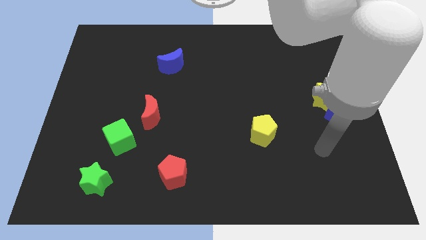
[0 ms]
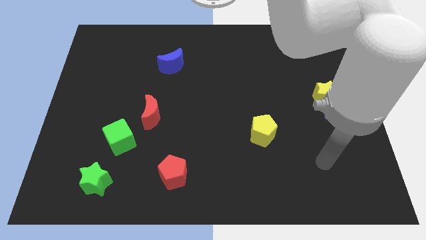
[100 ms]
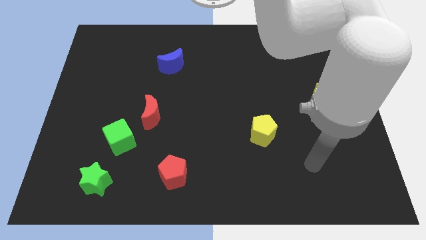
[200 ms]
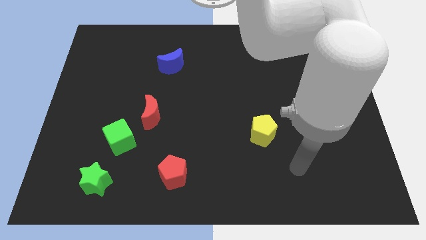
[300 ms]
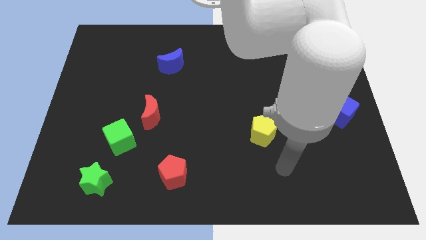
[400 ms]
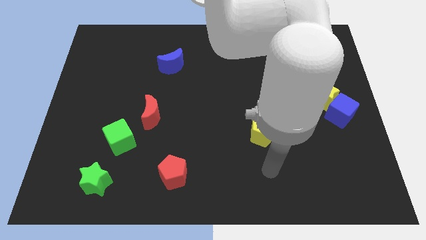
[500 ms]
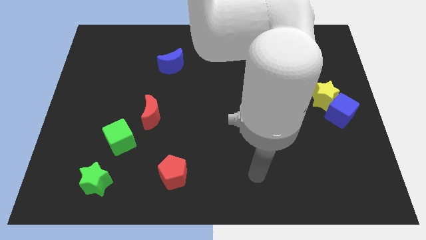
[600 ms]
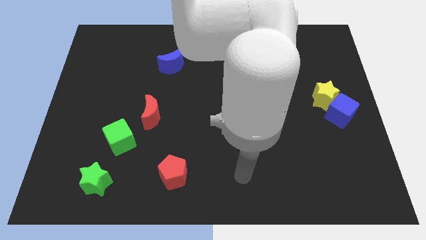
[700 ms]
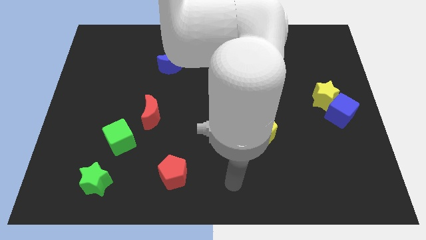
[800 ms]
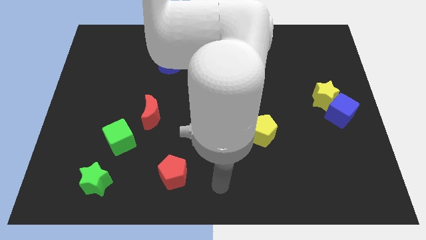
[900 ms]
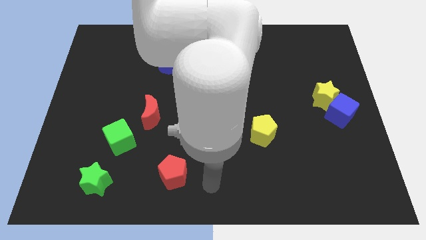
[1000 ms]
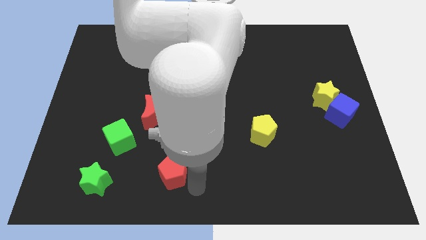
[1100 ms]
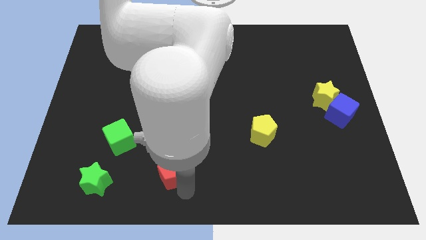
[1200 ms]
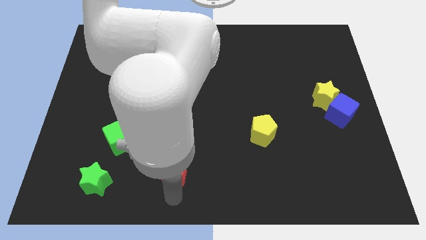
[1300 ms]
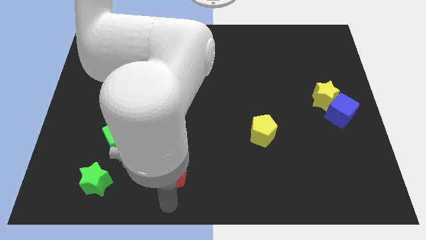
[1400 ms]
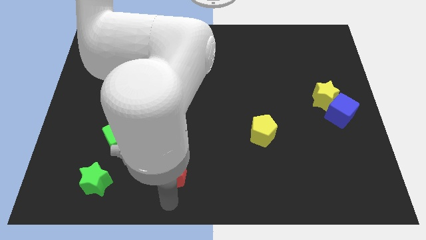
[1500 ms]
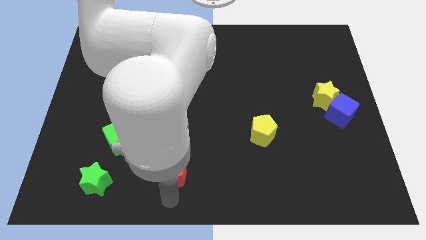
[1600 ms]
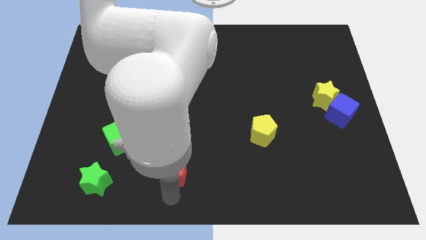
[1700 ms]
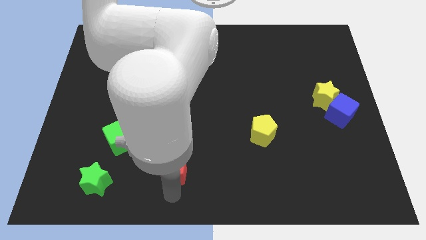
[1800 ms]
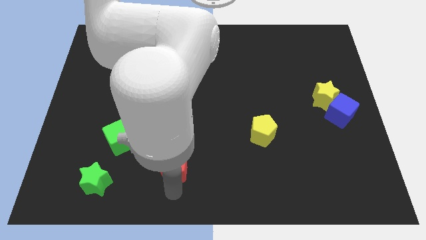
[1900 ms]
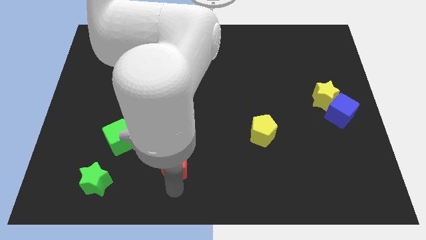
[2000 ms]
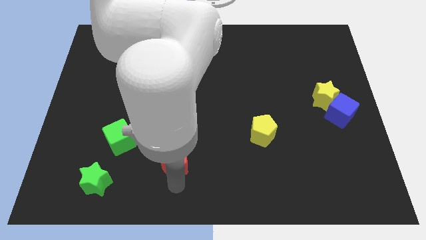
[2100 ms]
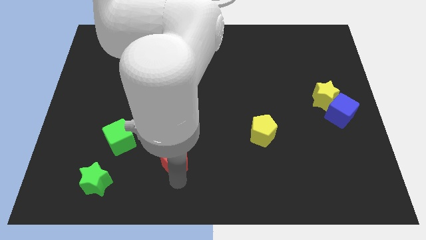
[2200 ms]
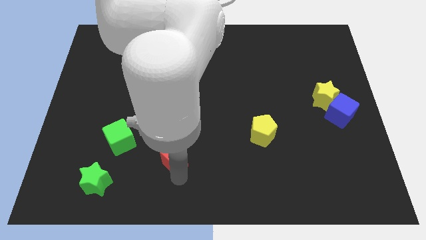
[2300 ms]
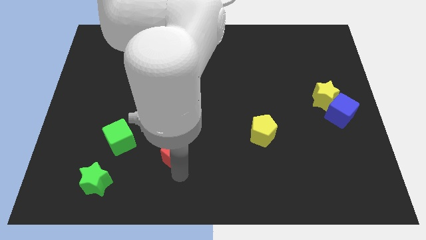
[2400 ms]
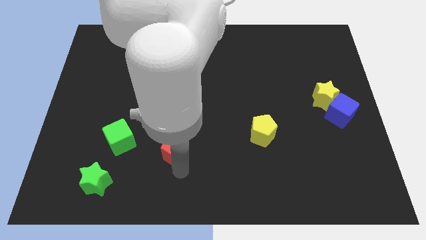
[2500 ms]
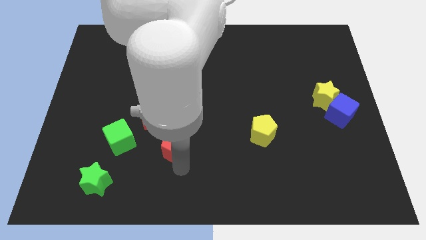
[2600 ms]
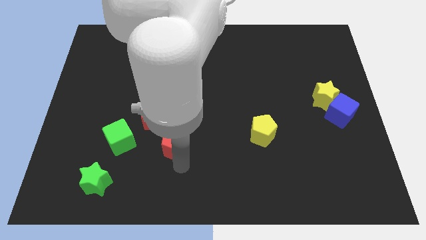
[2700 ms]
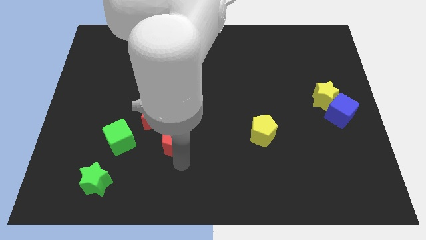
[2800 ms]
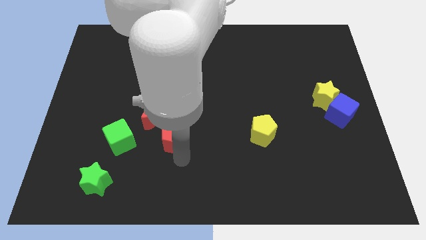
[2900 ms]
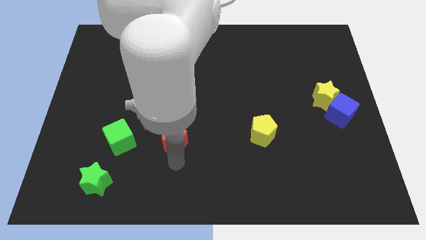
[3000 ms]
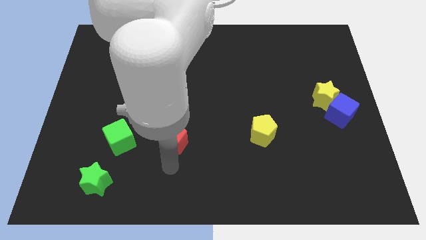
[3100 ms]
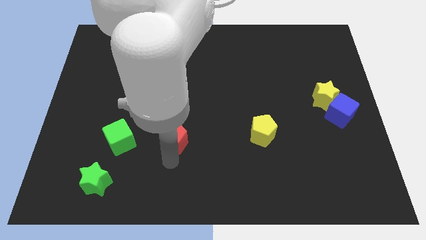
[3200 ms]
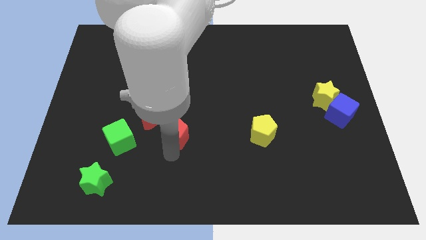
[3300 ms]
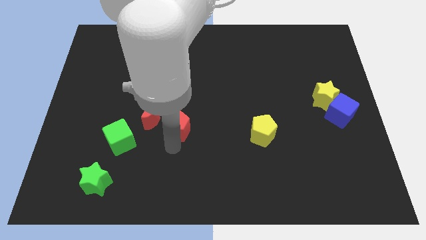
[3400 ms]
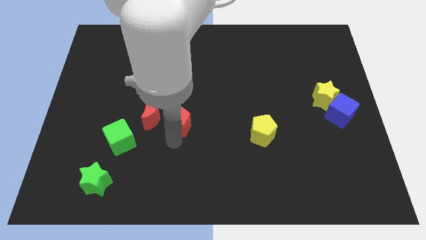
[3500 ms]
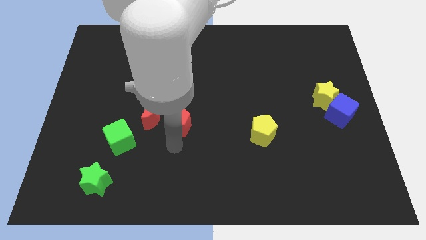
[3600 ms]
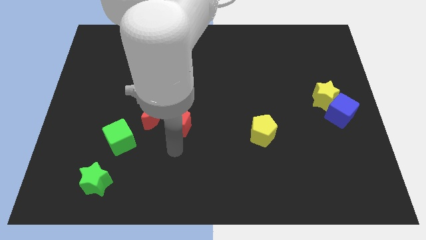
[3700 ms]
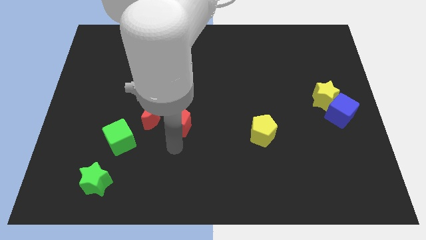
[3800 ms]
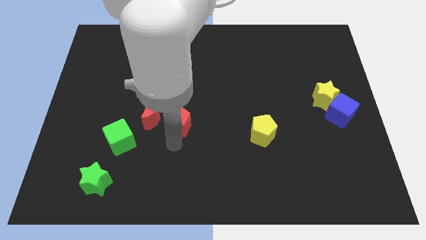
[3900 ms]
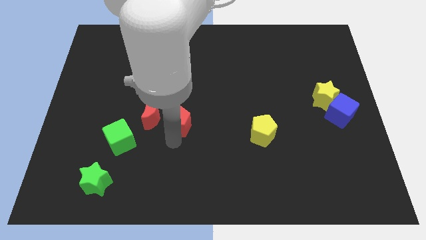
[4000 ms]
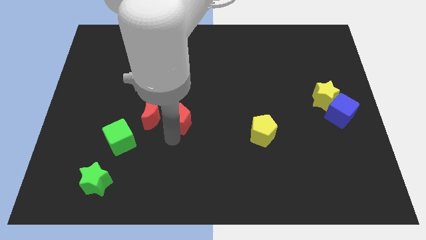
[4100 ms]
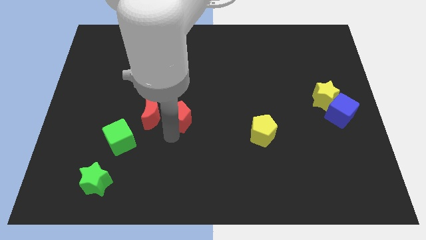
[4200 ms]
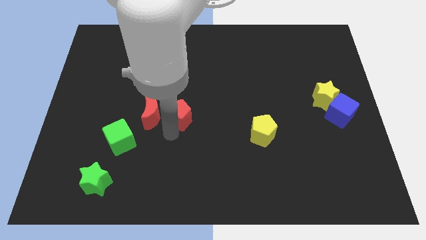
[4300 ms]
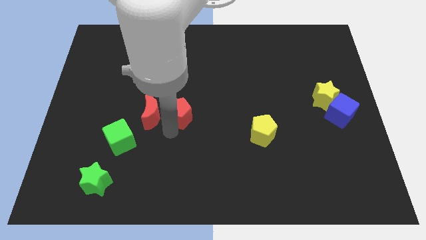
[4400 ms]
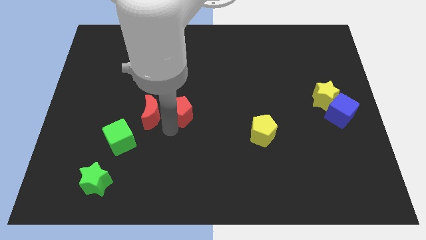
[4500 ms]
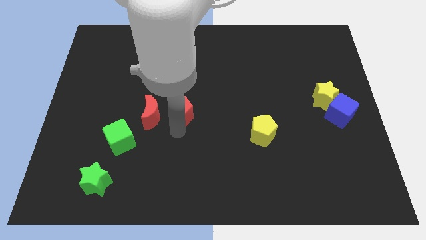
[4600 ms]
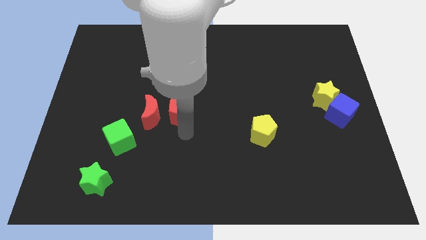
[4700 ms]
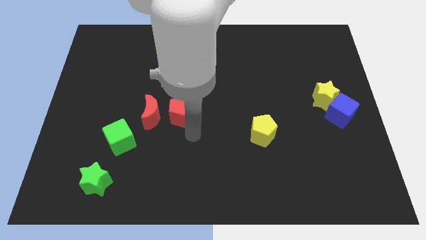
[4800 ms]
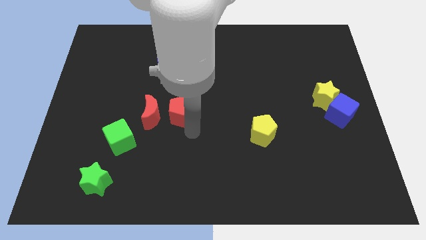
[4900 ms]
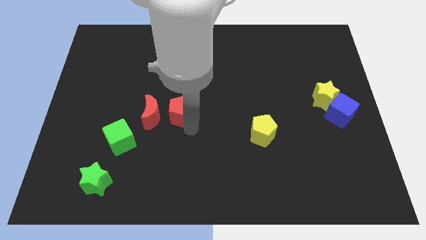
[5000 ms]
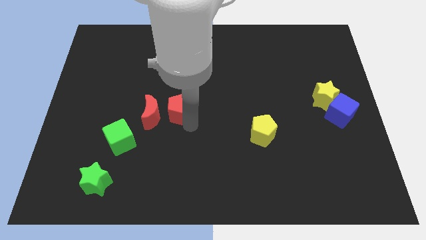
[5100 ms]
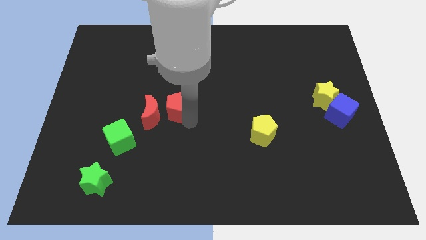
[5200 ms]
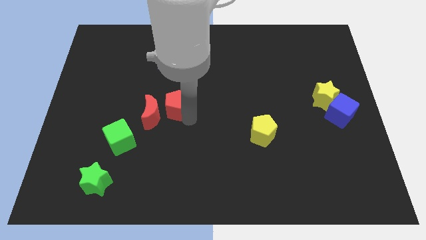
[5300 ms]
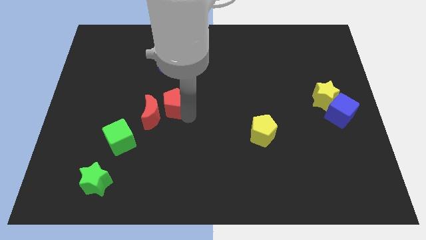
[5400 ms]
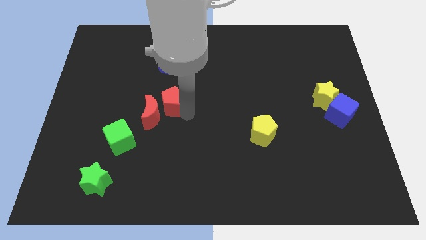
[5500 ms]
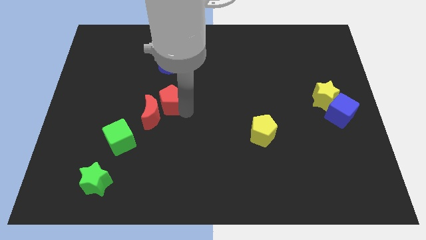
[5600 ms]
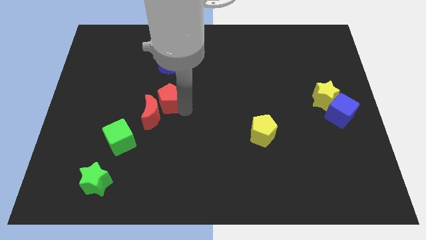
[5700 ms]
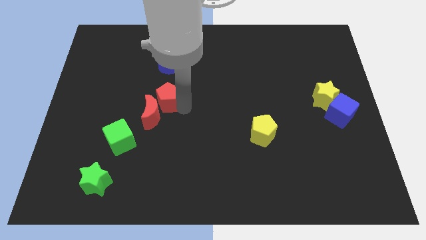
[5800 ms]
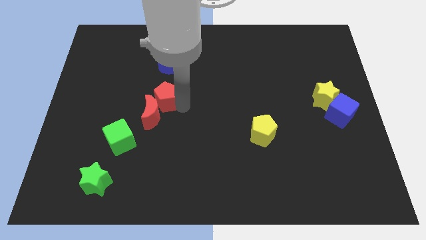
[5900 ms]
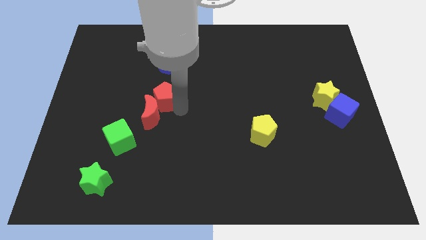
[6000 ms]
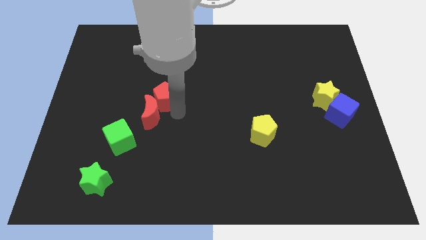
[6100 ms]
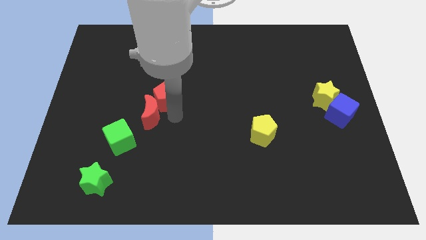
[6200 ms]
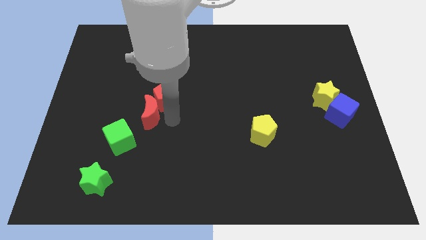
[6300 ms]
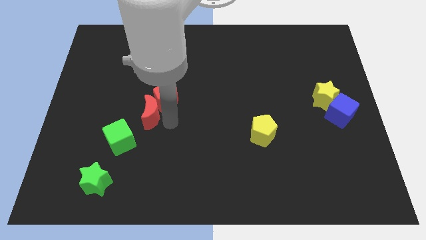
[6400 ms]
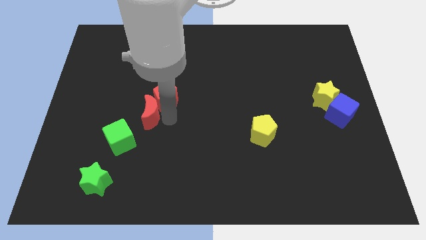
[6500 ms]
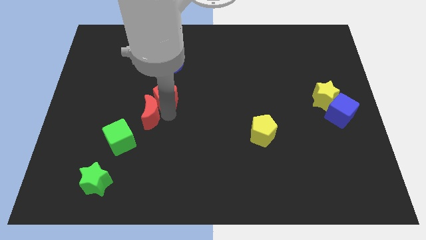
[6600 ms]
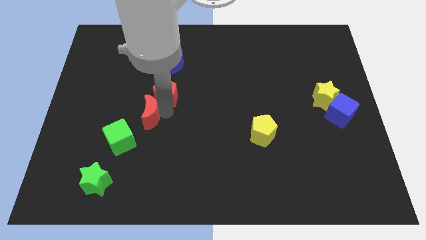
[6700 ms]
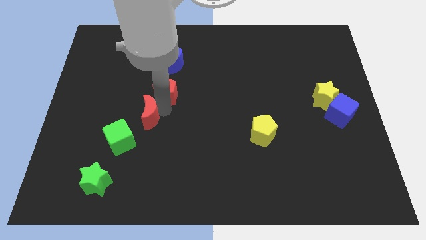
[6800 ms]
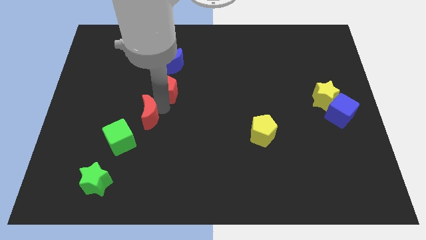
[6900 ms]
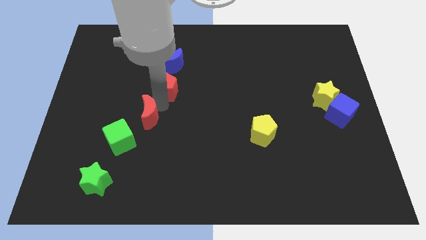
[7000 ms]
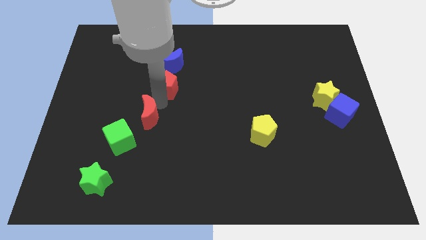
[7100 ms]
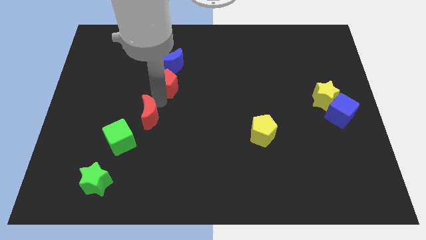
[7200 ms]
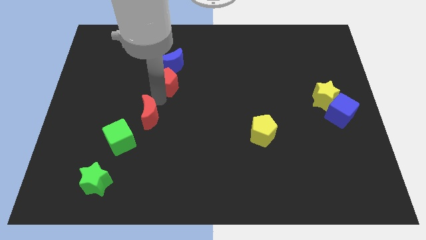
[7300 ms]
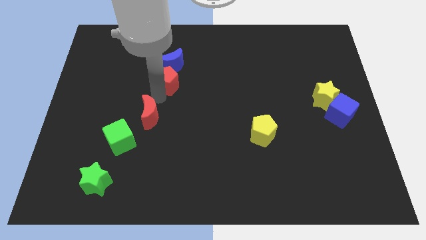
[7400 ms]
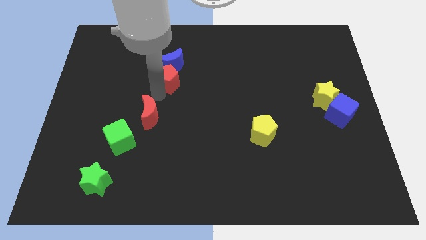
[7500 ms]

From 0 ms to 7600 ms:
push the red pentagon towards the blue moon
